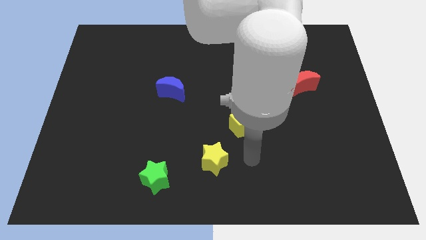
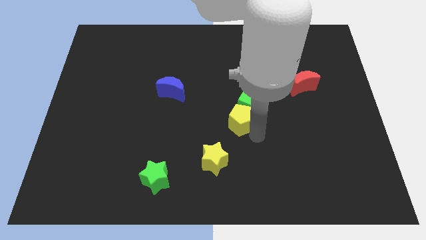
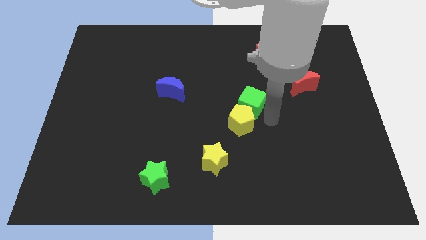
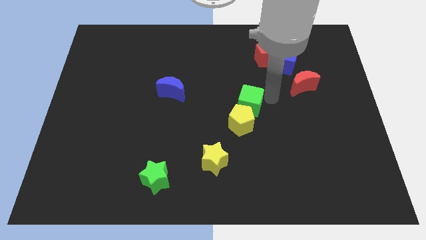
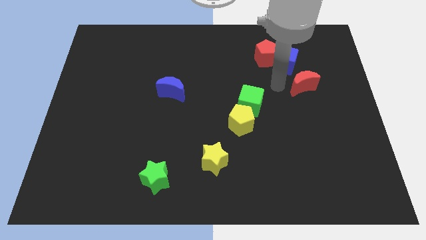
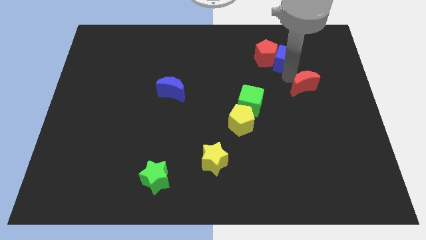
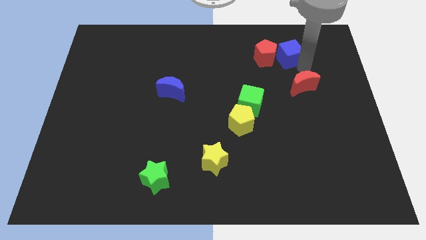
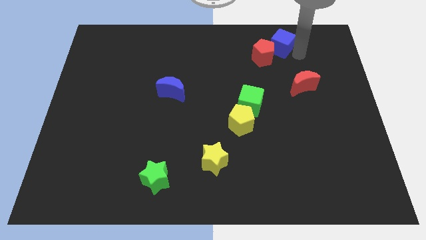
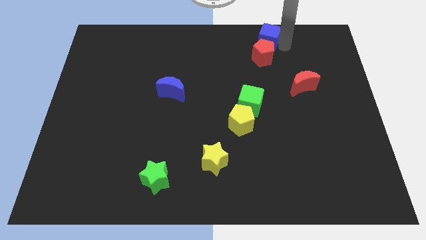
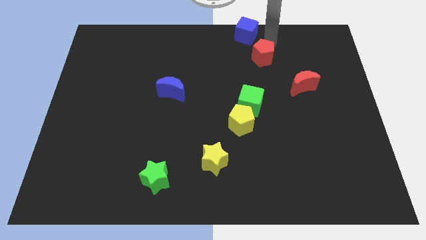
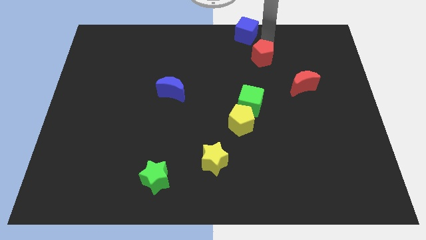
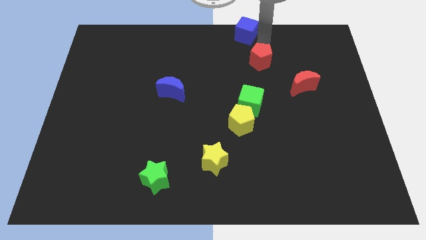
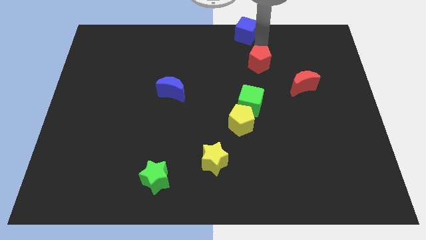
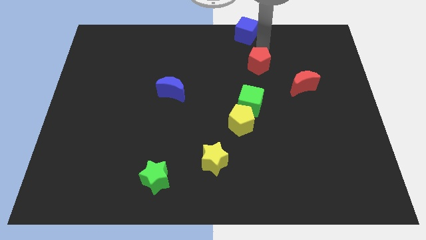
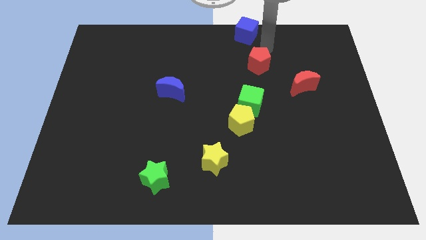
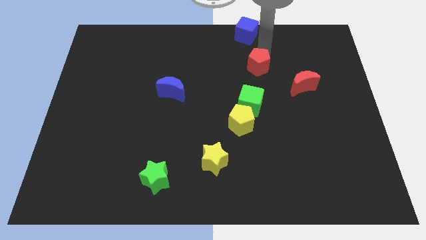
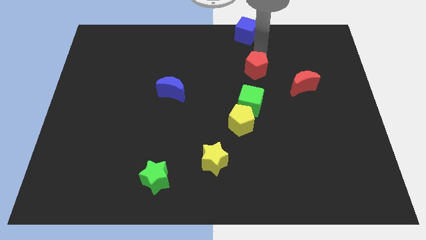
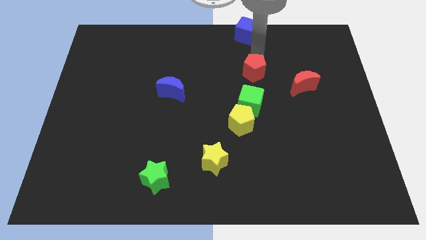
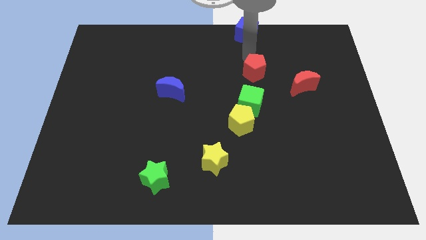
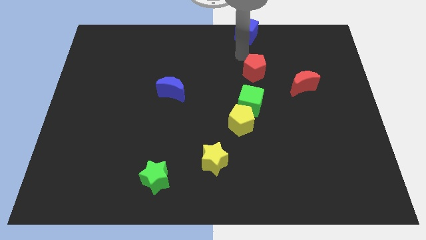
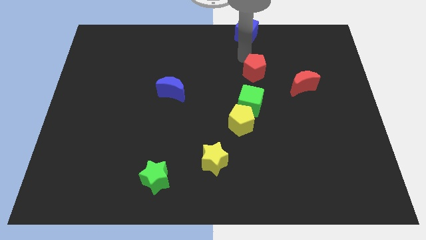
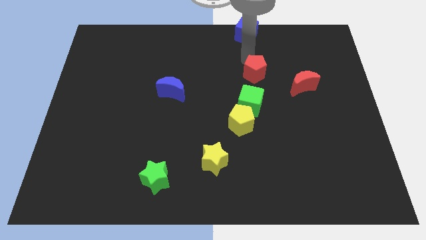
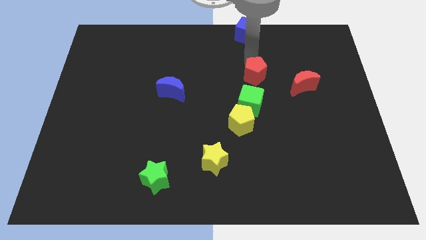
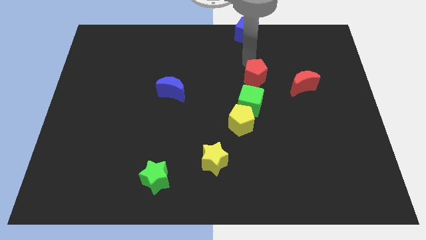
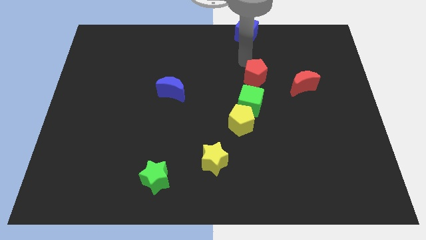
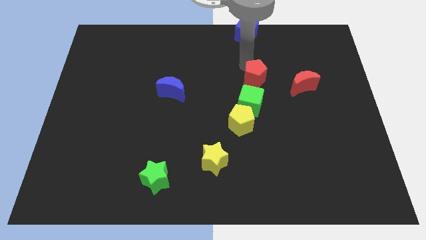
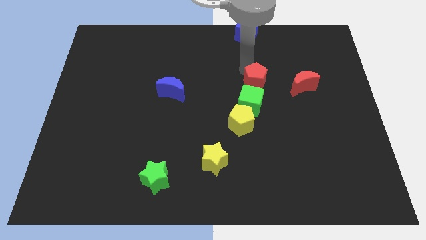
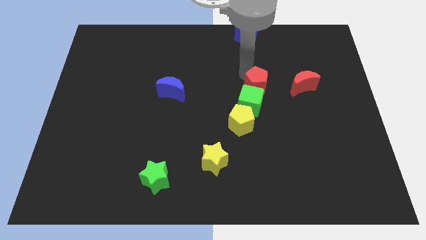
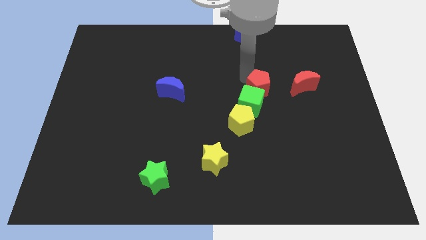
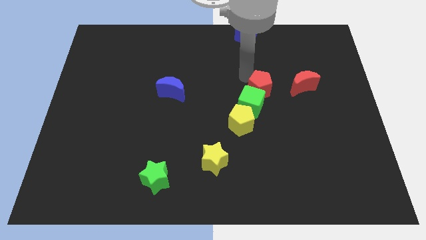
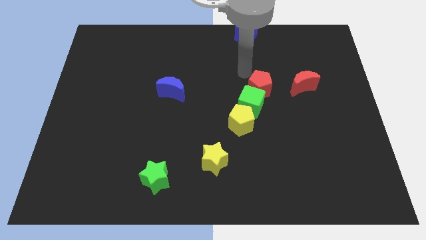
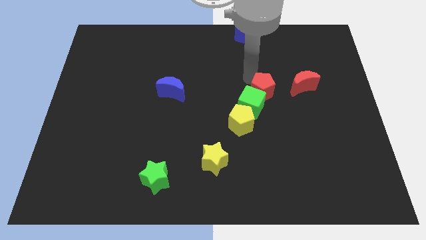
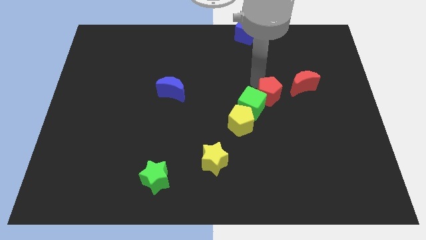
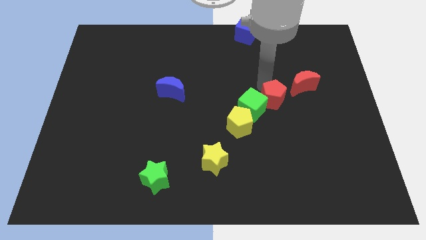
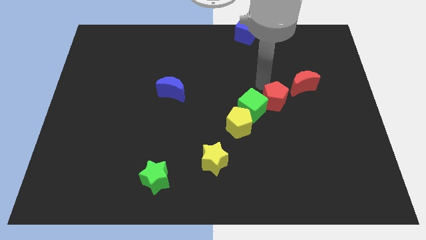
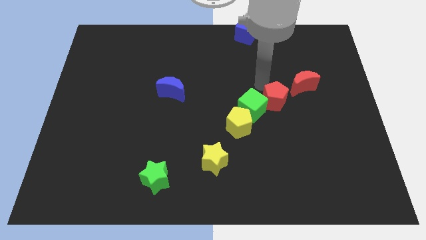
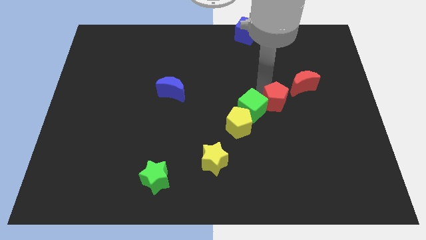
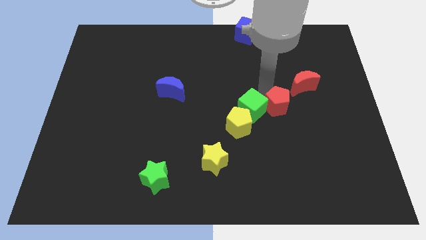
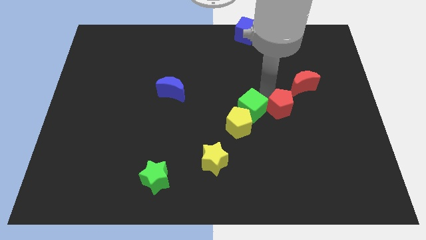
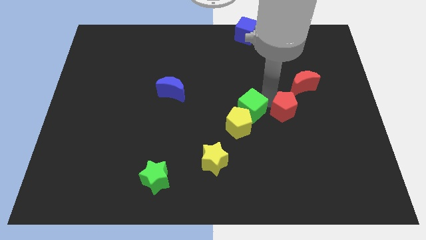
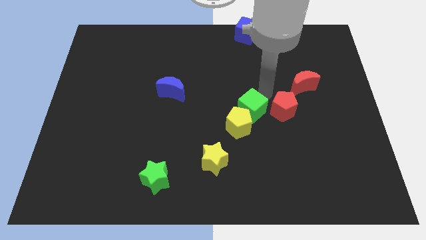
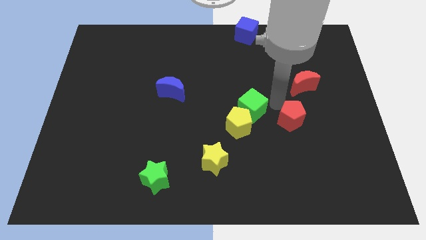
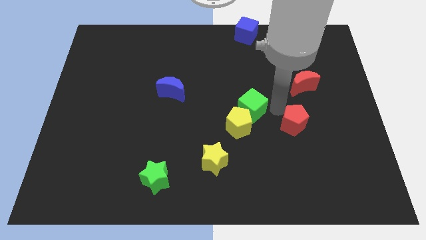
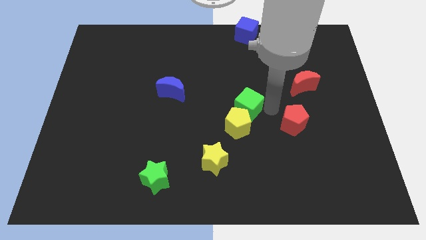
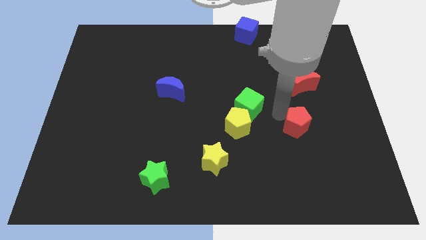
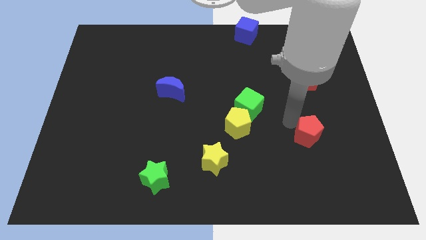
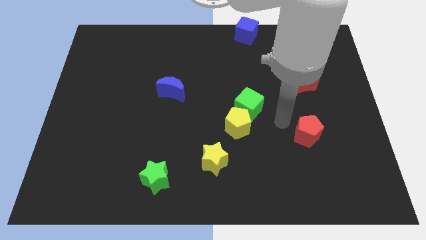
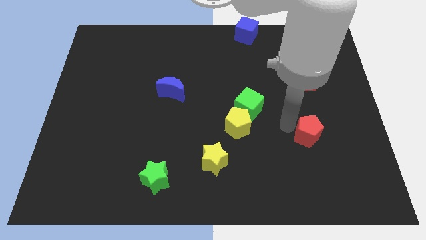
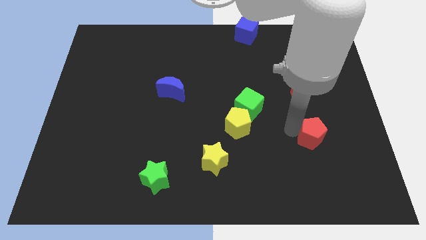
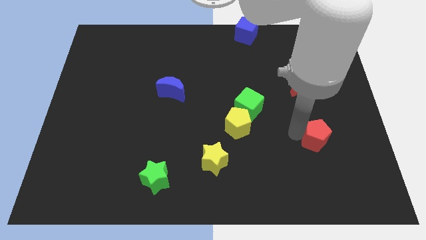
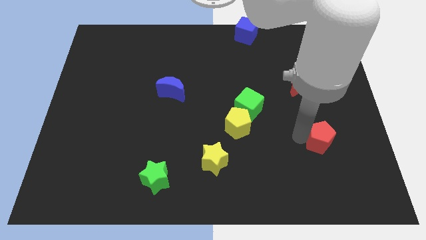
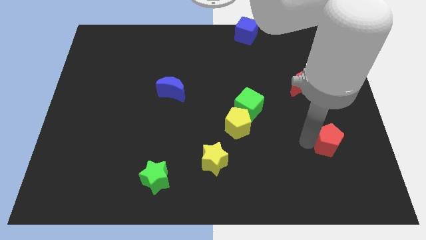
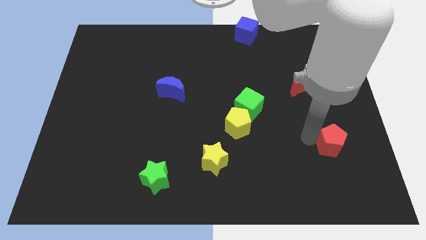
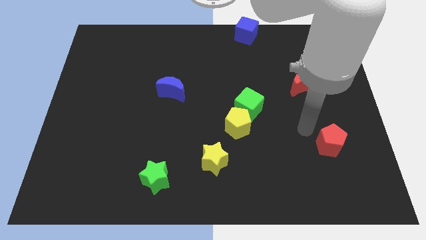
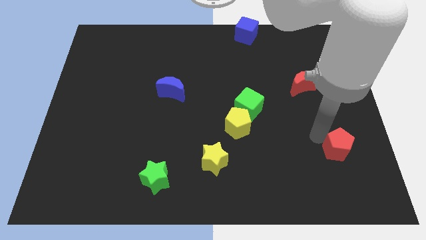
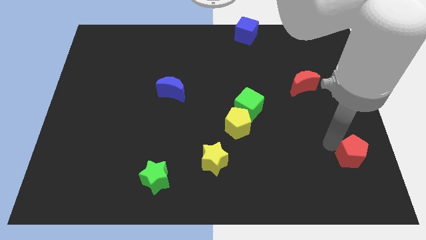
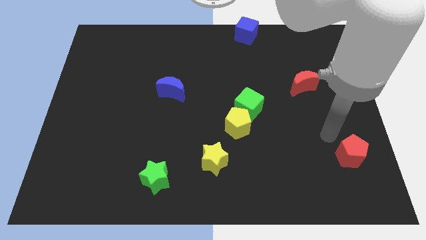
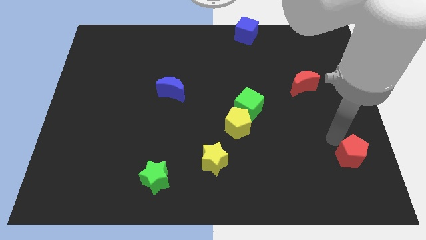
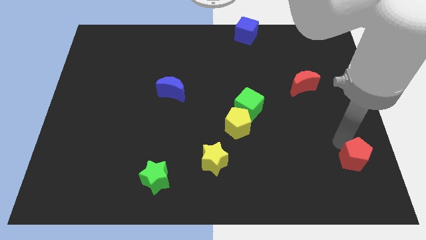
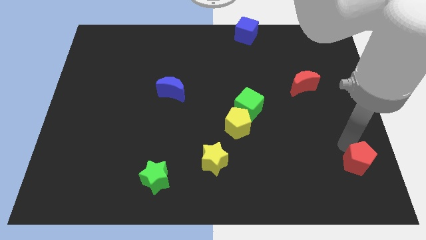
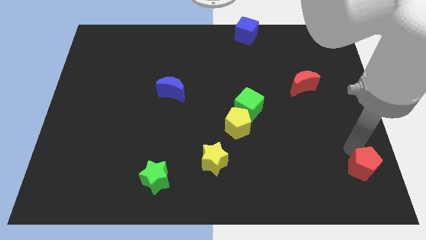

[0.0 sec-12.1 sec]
put the red pentagon to the bottom right of the board

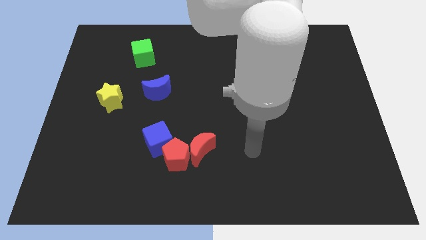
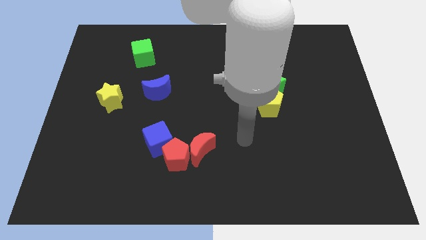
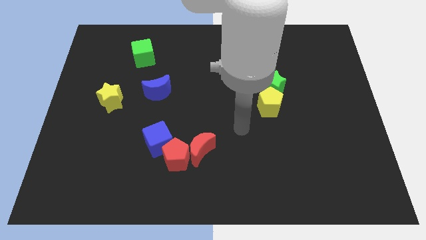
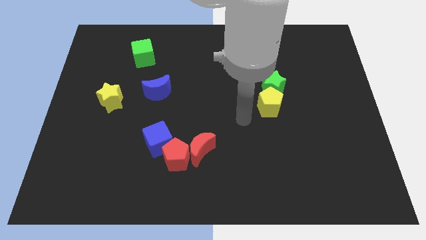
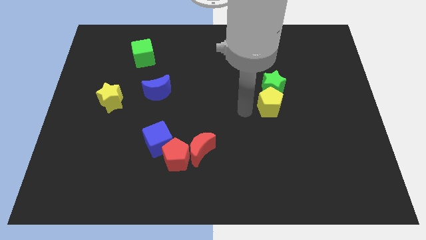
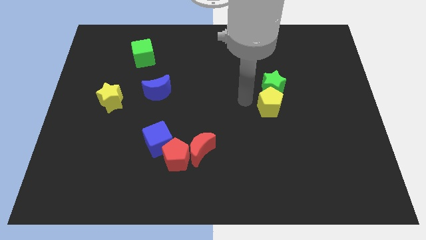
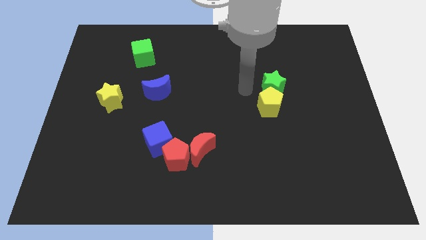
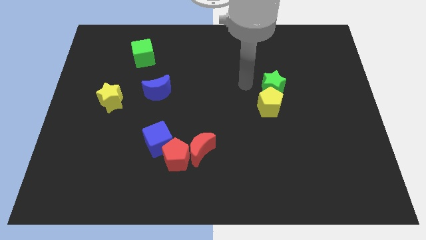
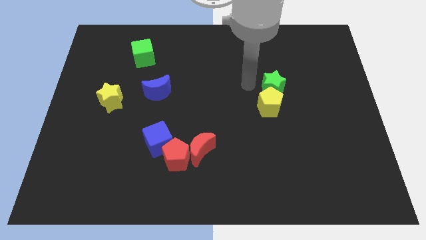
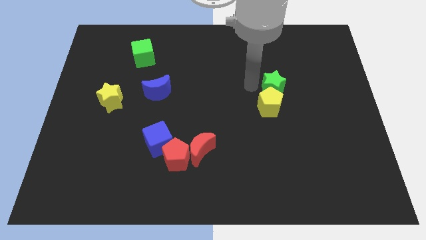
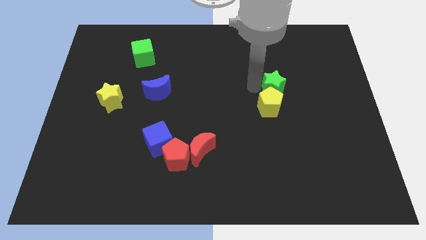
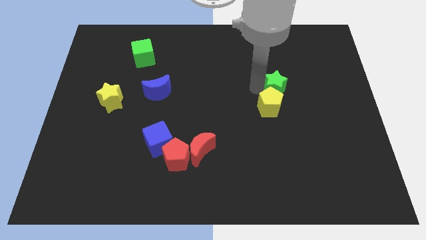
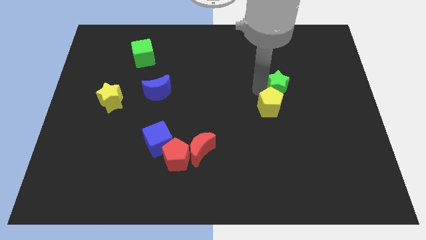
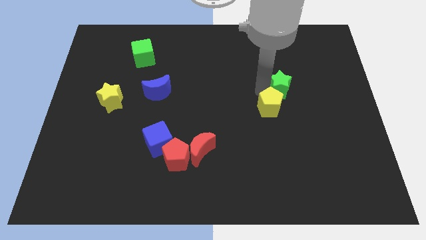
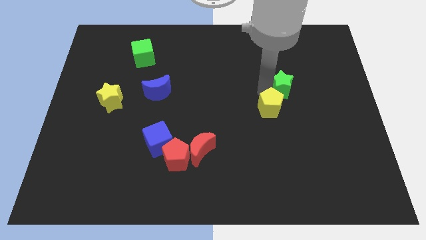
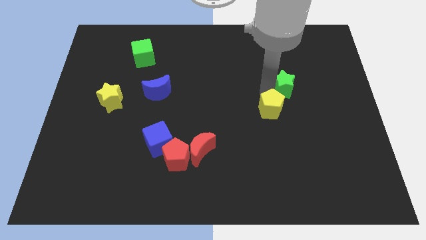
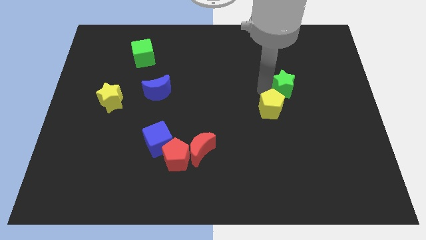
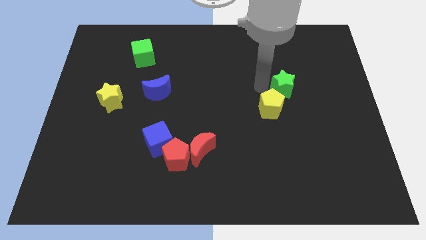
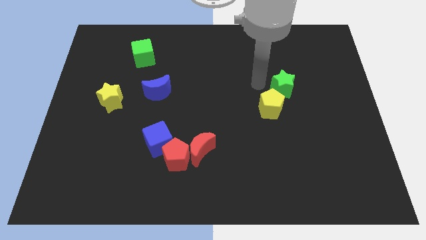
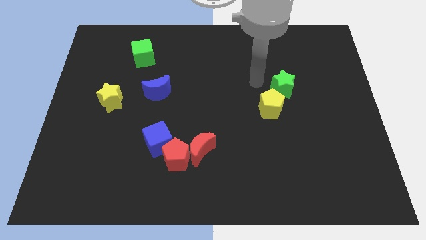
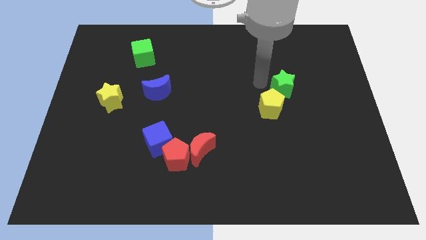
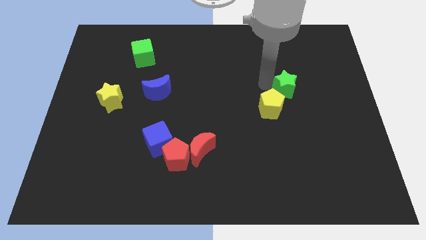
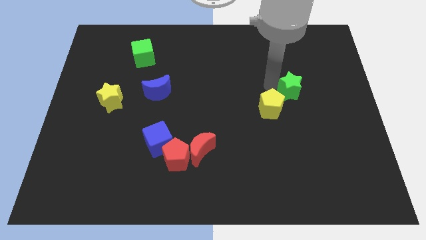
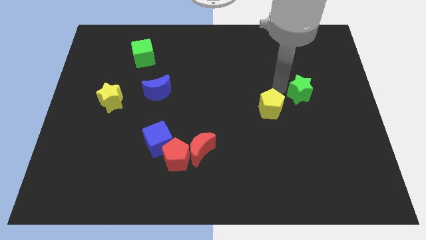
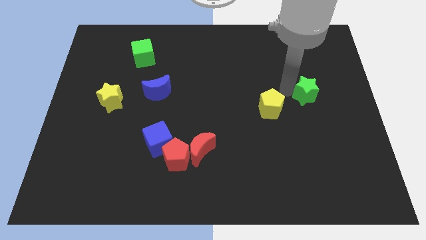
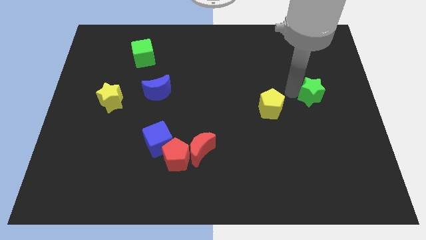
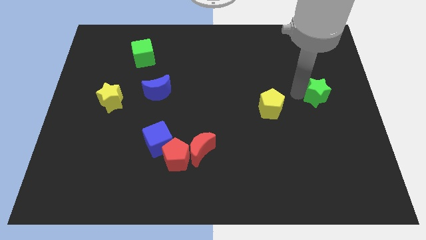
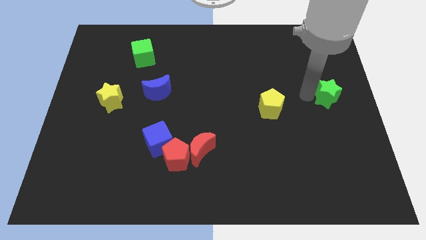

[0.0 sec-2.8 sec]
slide the green star to the right side

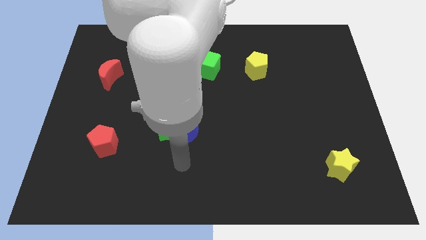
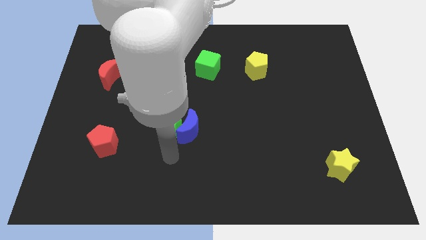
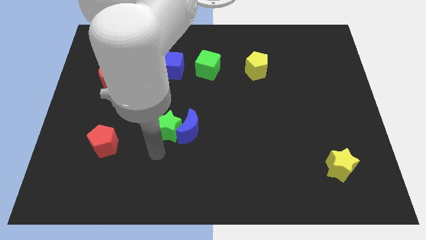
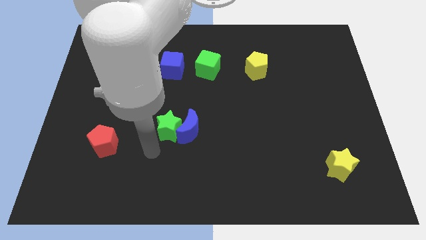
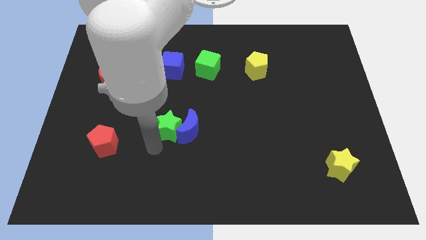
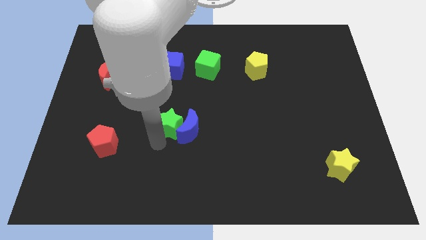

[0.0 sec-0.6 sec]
move the green star to the center
